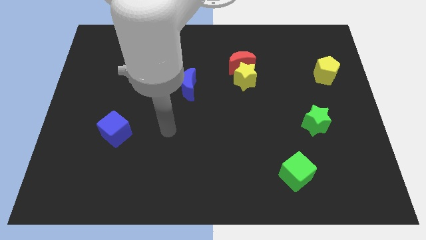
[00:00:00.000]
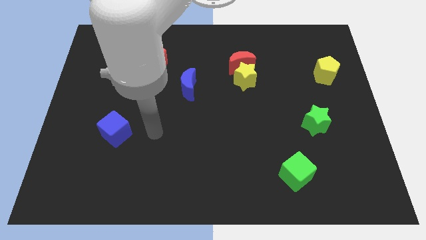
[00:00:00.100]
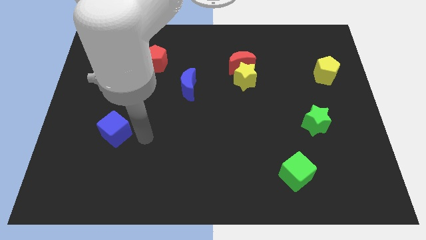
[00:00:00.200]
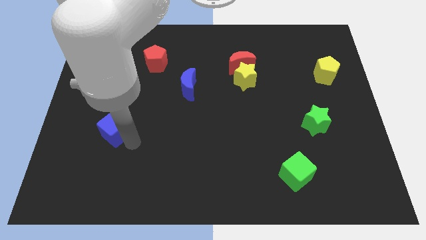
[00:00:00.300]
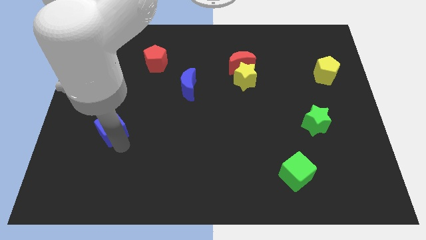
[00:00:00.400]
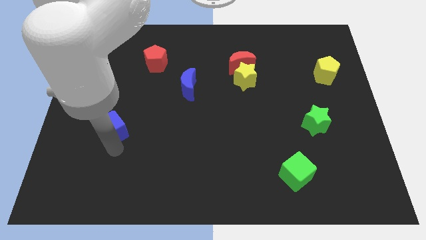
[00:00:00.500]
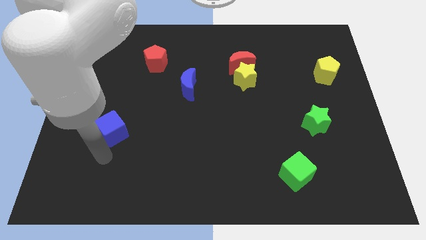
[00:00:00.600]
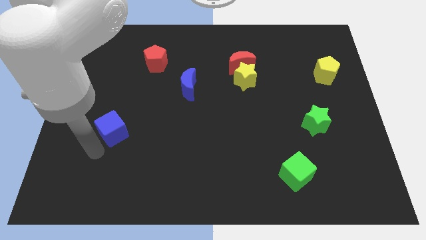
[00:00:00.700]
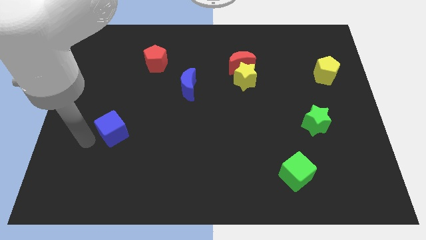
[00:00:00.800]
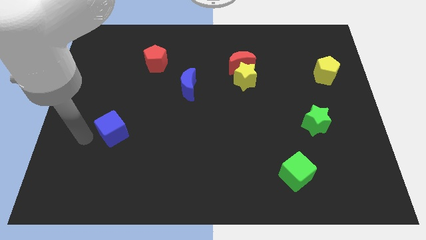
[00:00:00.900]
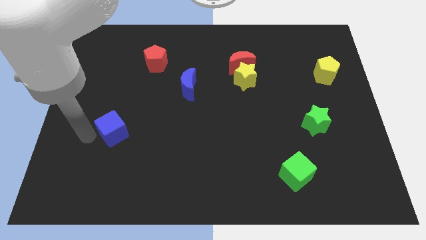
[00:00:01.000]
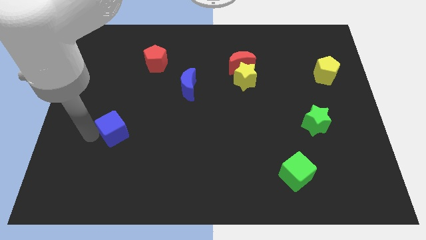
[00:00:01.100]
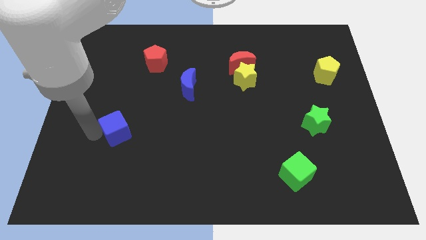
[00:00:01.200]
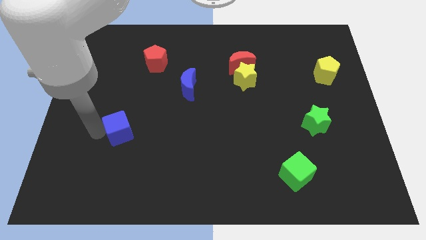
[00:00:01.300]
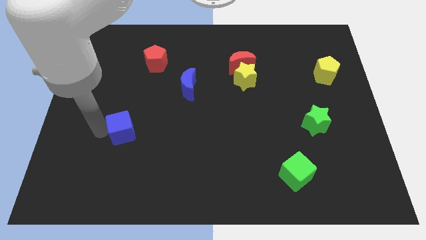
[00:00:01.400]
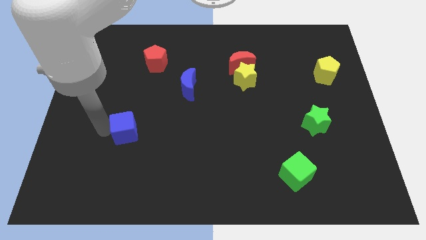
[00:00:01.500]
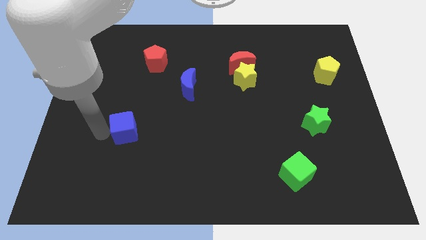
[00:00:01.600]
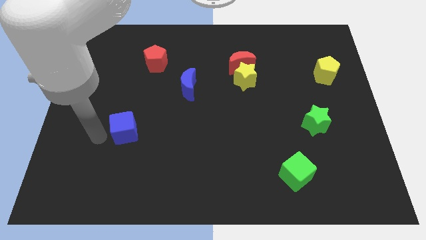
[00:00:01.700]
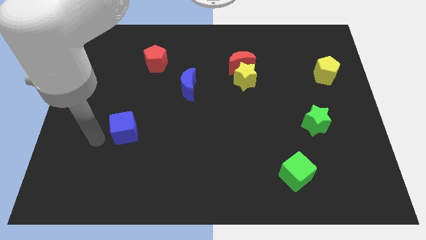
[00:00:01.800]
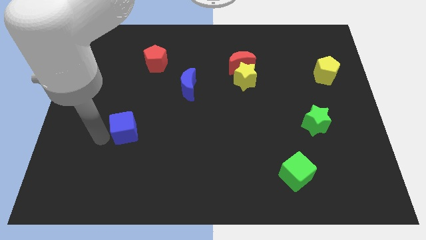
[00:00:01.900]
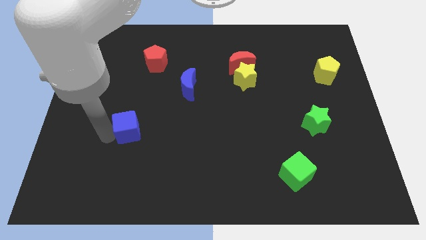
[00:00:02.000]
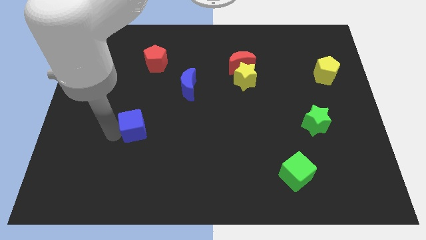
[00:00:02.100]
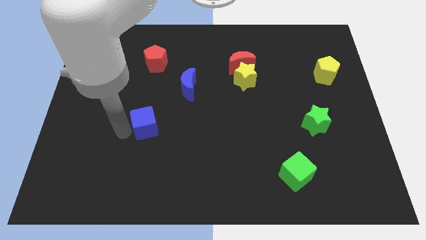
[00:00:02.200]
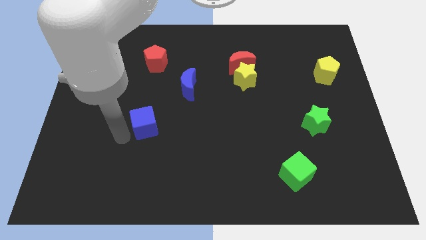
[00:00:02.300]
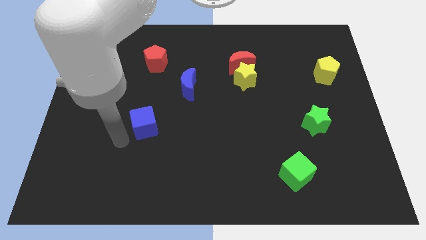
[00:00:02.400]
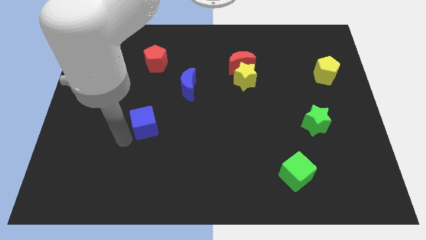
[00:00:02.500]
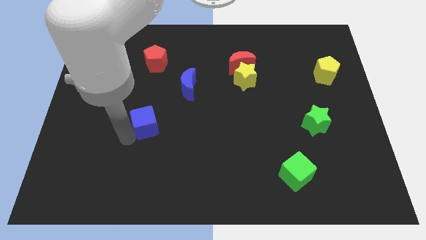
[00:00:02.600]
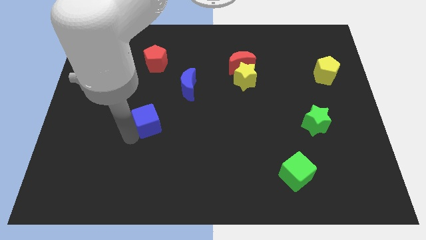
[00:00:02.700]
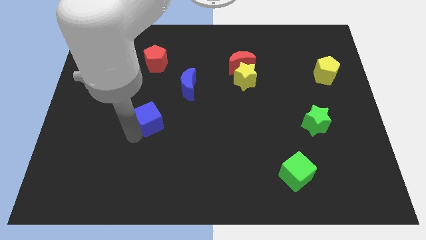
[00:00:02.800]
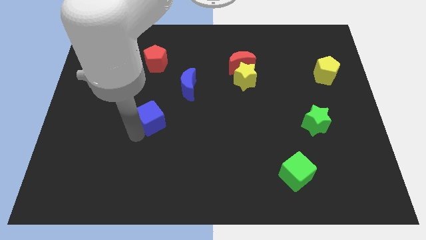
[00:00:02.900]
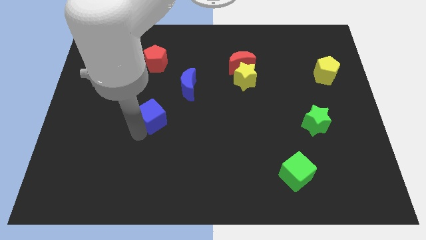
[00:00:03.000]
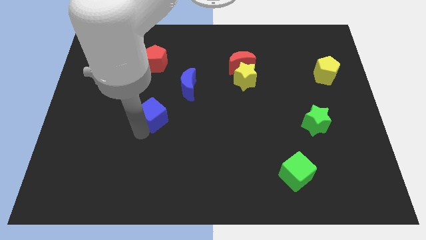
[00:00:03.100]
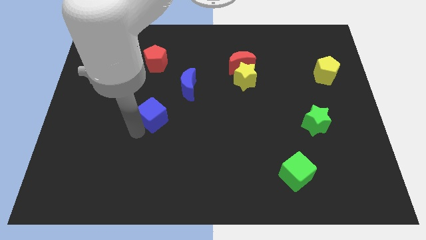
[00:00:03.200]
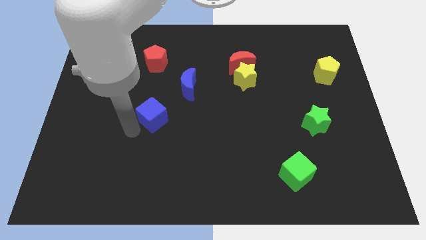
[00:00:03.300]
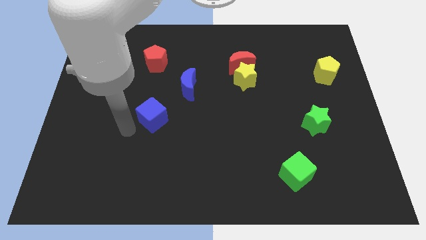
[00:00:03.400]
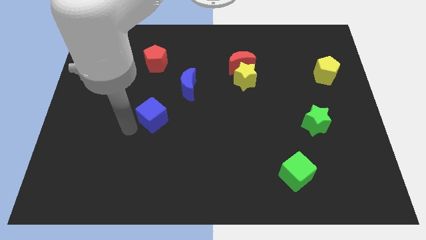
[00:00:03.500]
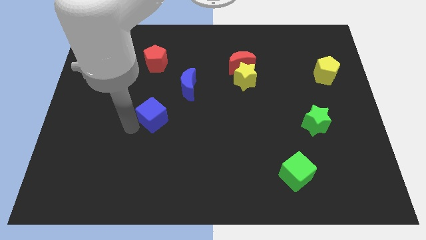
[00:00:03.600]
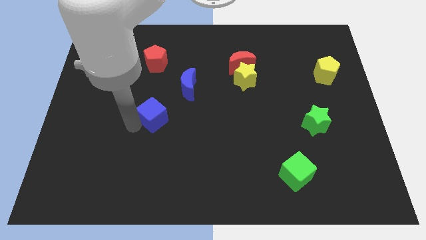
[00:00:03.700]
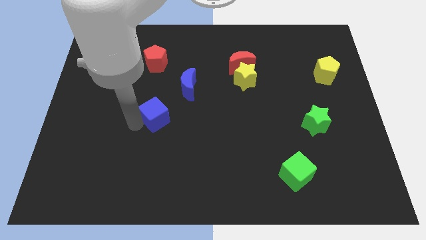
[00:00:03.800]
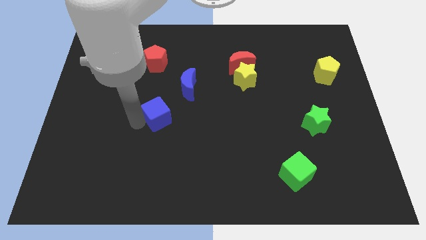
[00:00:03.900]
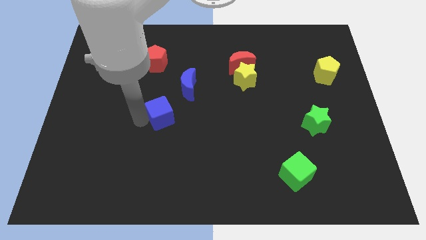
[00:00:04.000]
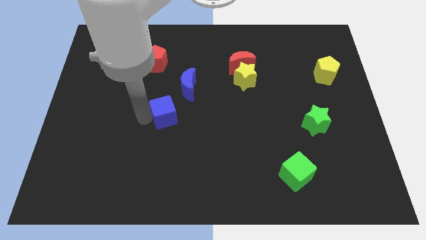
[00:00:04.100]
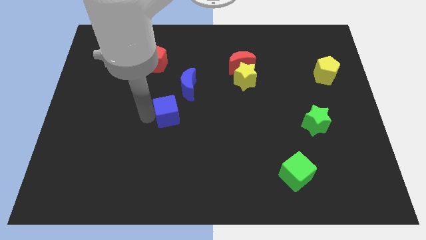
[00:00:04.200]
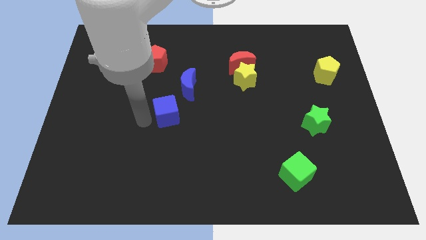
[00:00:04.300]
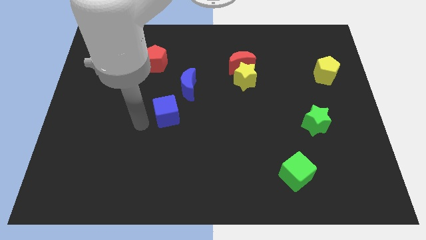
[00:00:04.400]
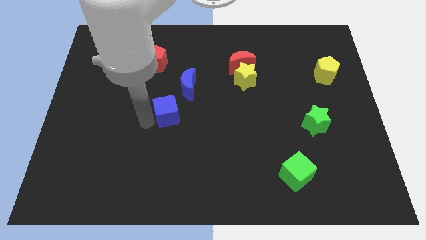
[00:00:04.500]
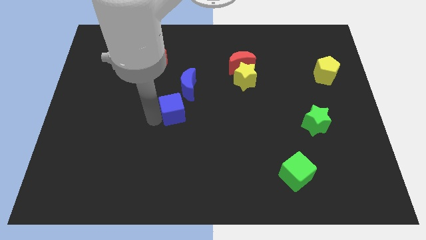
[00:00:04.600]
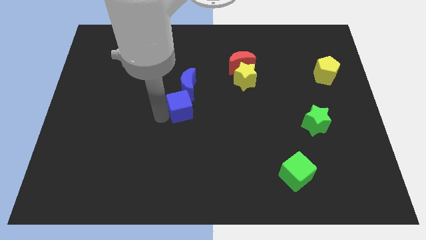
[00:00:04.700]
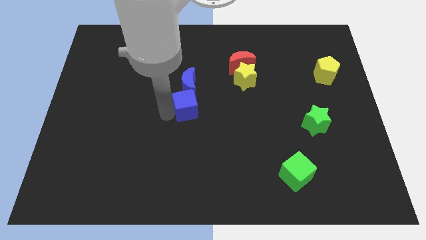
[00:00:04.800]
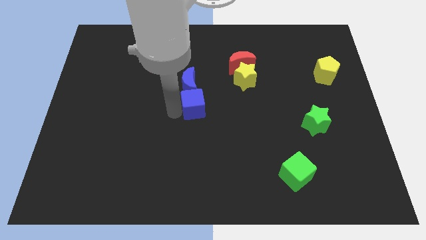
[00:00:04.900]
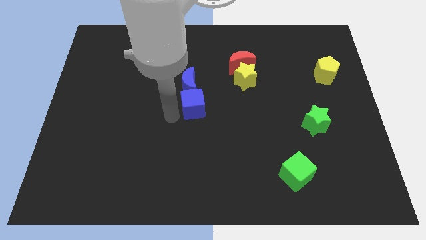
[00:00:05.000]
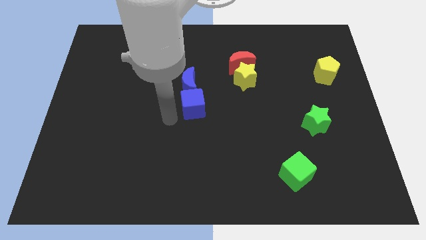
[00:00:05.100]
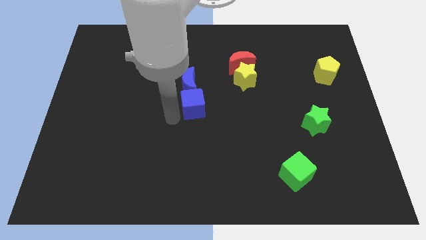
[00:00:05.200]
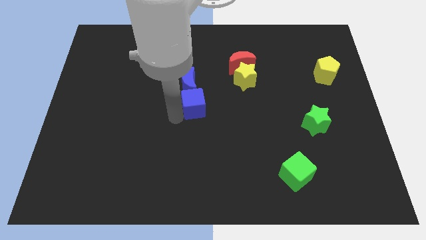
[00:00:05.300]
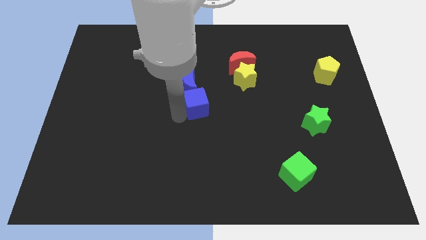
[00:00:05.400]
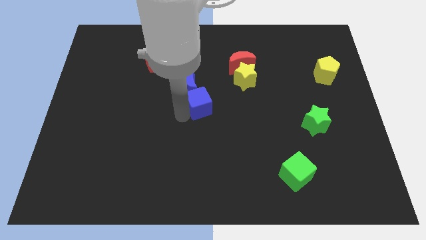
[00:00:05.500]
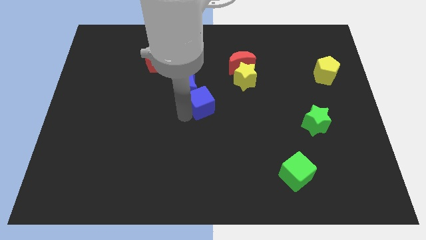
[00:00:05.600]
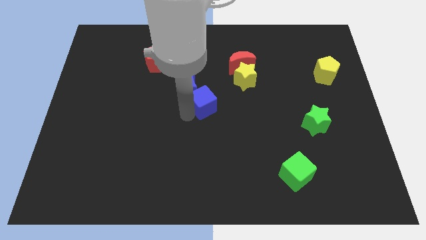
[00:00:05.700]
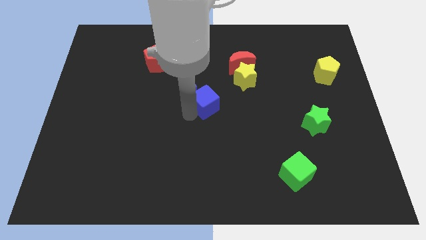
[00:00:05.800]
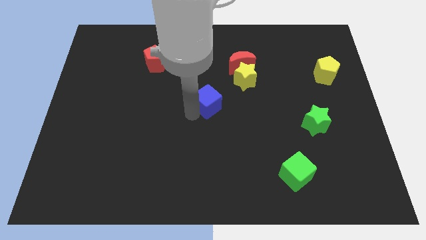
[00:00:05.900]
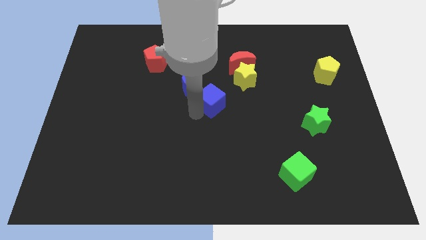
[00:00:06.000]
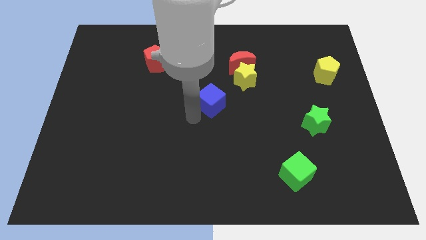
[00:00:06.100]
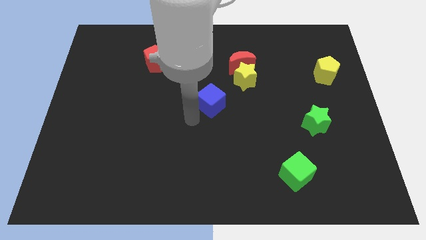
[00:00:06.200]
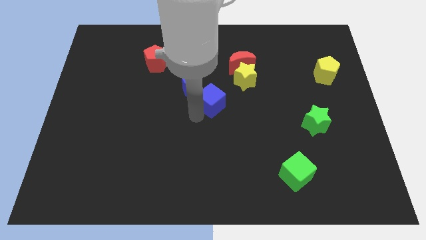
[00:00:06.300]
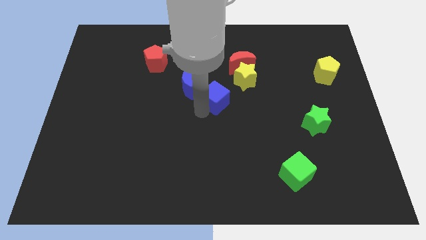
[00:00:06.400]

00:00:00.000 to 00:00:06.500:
slide the blue cube to the right of the blue moon
